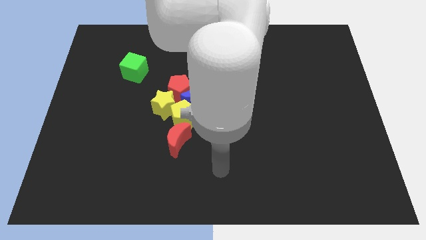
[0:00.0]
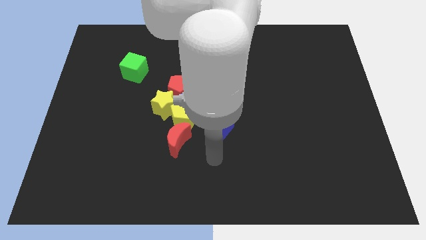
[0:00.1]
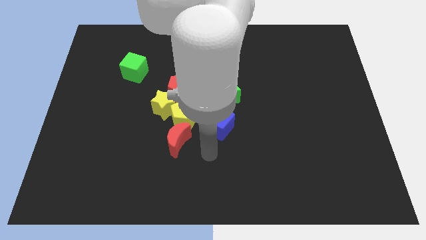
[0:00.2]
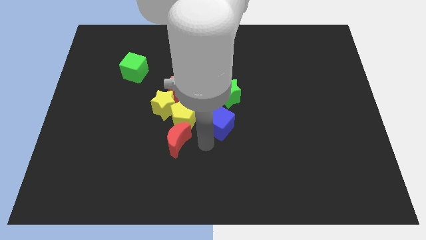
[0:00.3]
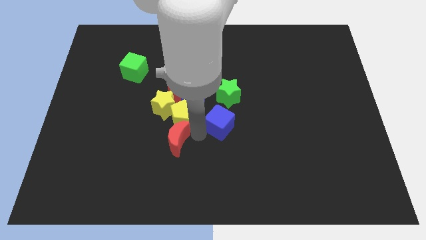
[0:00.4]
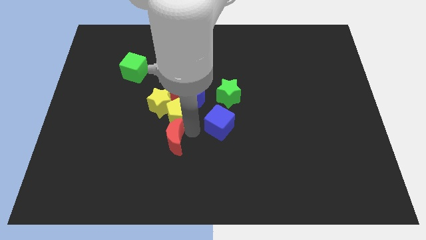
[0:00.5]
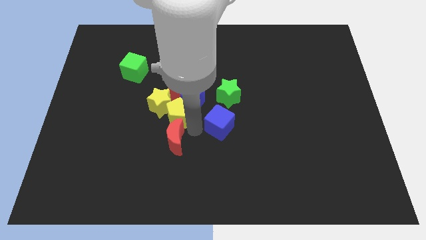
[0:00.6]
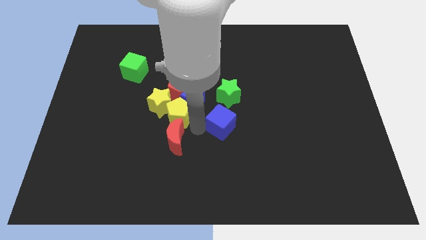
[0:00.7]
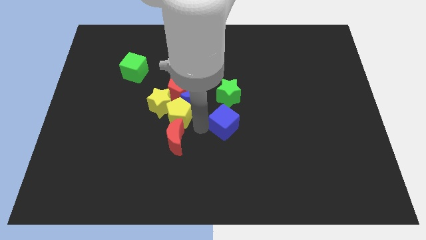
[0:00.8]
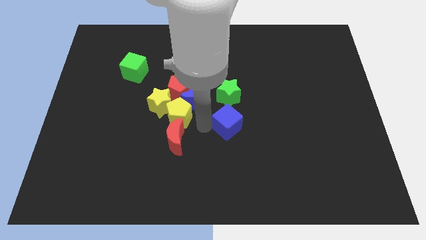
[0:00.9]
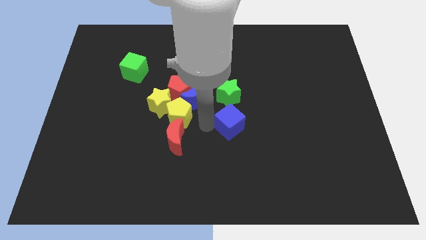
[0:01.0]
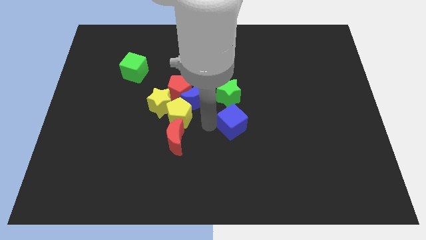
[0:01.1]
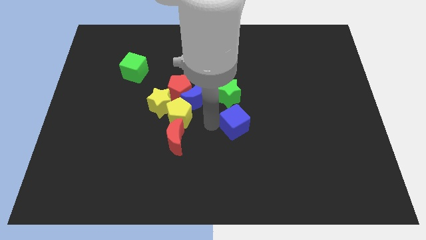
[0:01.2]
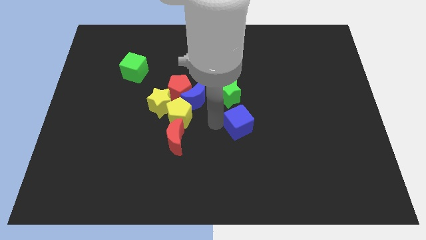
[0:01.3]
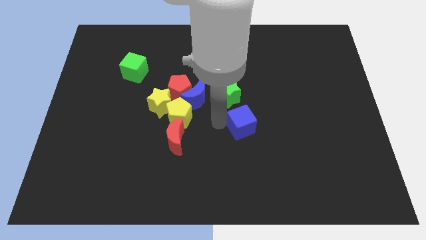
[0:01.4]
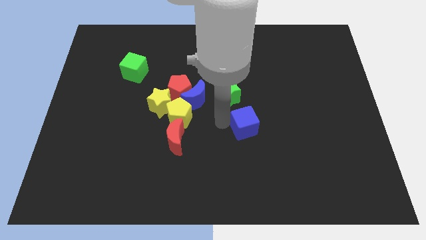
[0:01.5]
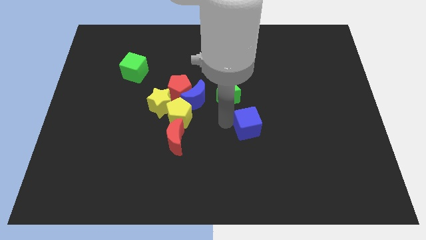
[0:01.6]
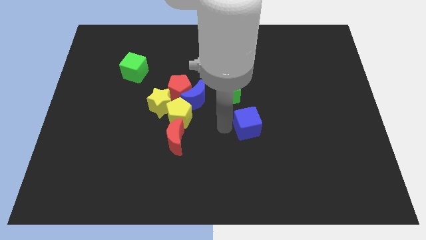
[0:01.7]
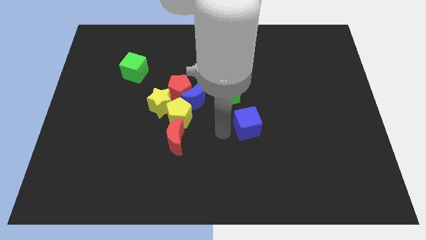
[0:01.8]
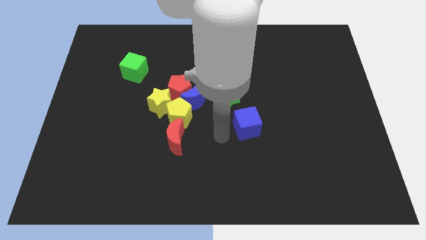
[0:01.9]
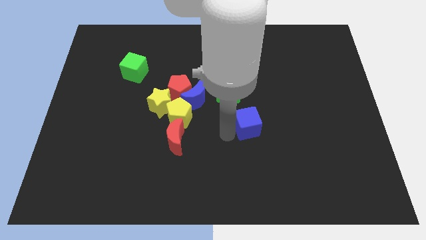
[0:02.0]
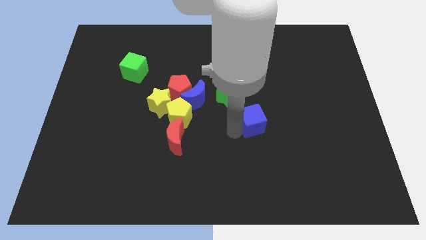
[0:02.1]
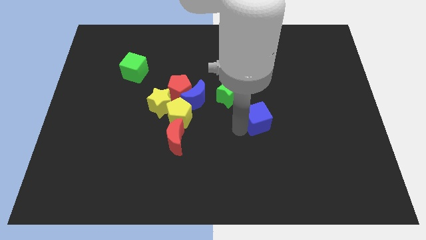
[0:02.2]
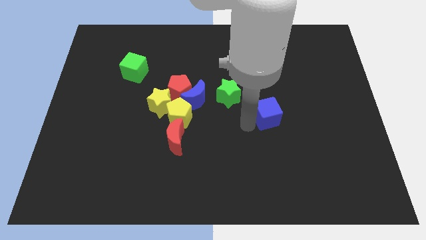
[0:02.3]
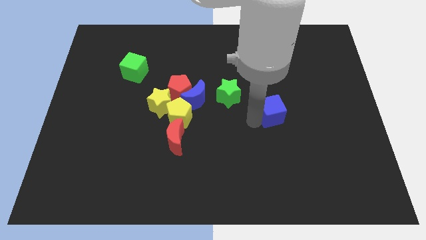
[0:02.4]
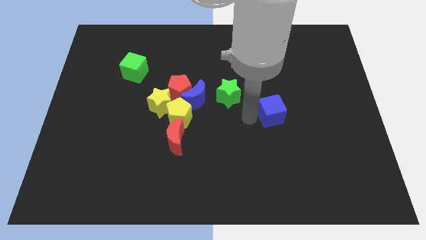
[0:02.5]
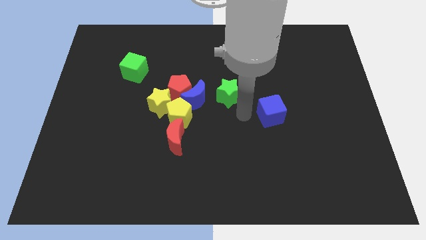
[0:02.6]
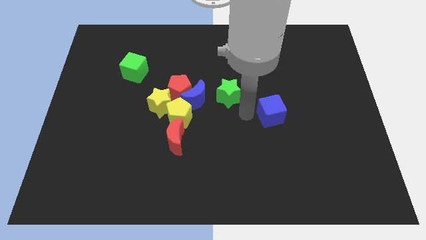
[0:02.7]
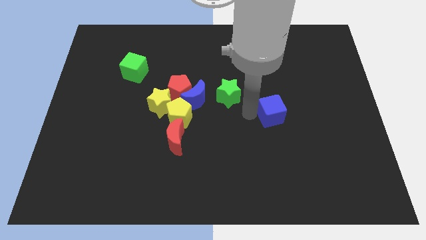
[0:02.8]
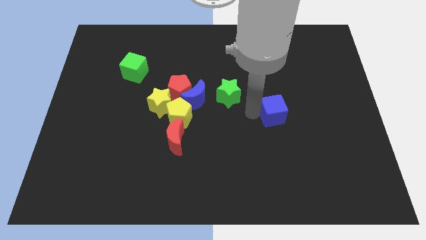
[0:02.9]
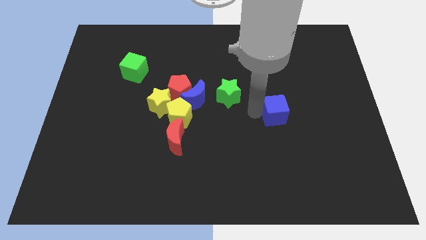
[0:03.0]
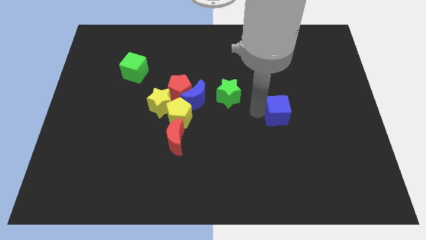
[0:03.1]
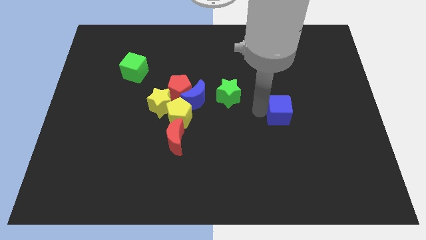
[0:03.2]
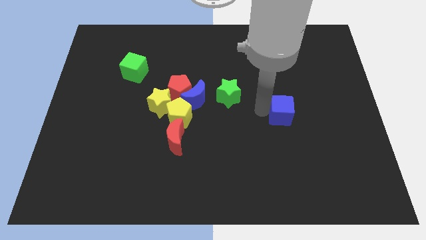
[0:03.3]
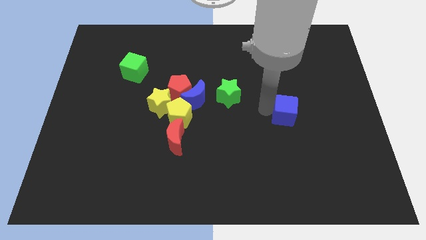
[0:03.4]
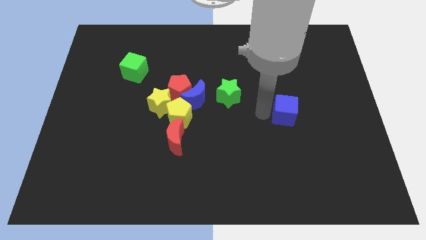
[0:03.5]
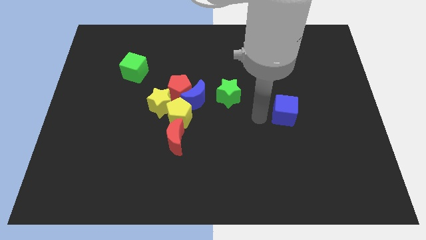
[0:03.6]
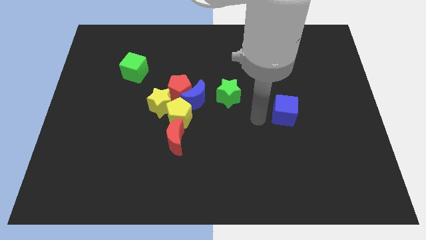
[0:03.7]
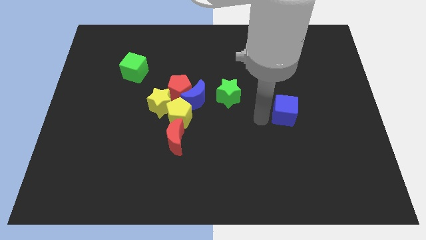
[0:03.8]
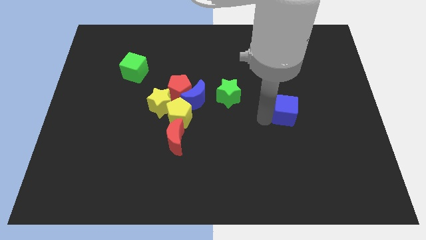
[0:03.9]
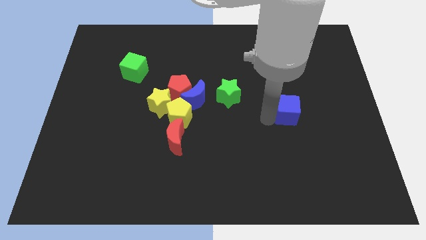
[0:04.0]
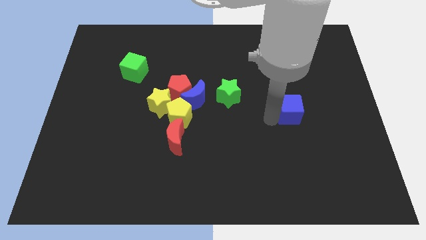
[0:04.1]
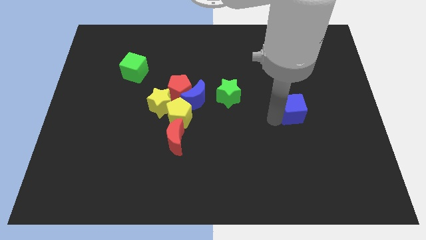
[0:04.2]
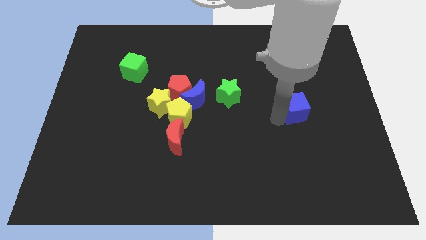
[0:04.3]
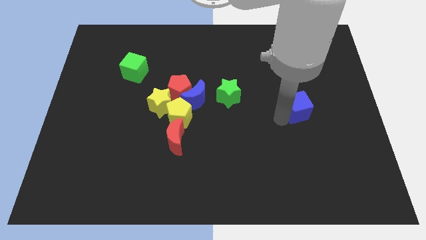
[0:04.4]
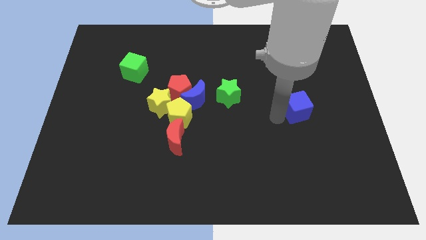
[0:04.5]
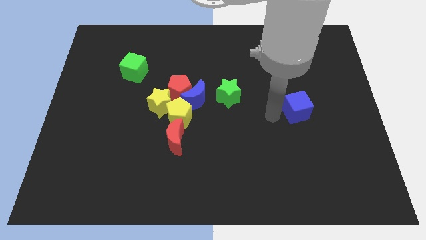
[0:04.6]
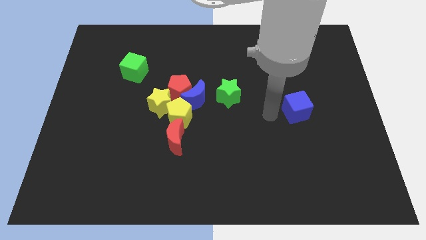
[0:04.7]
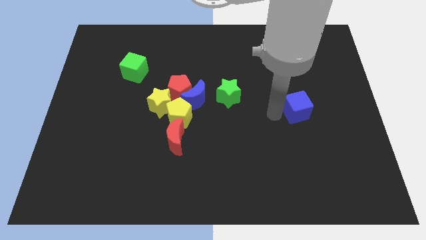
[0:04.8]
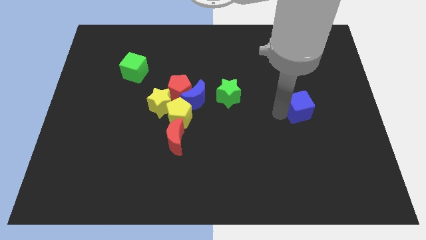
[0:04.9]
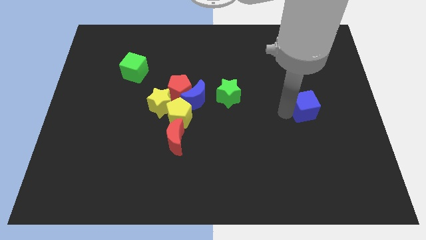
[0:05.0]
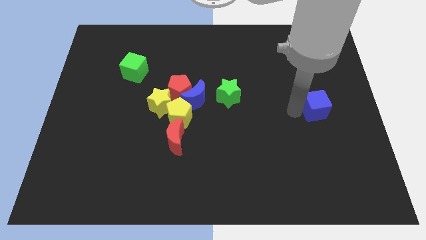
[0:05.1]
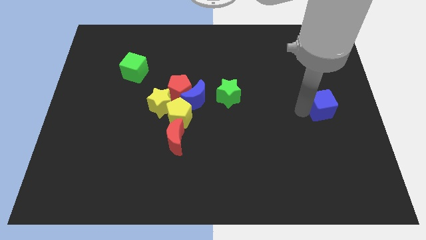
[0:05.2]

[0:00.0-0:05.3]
put the blue cube to the right side of the board

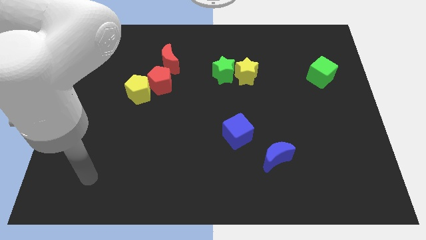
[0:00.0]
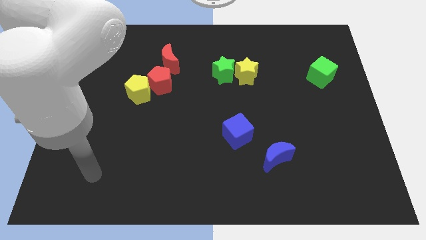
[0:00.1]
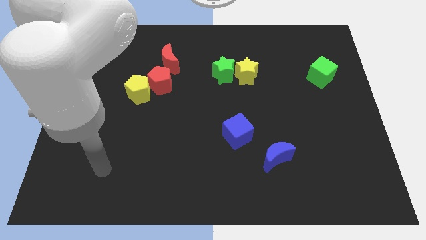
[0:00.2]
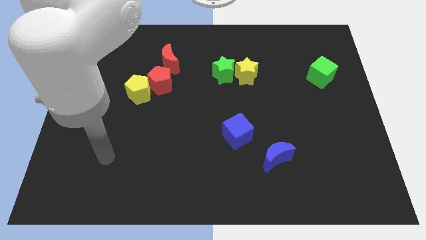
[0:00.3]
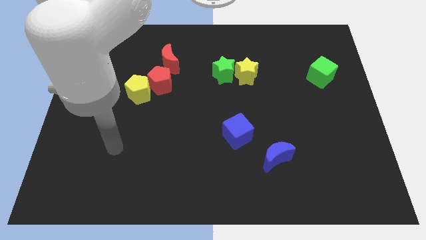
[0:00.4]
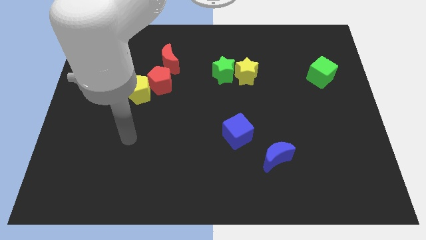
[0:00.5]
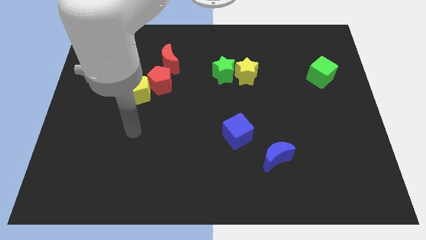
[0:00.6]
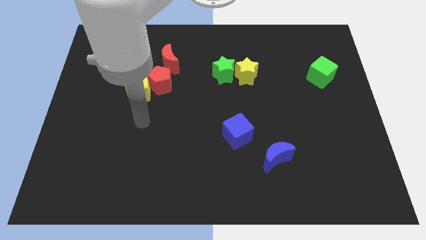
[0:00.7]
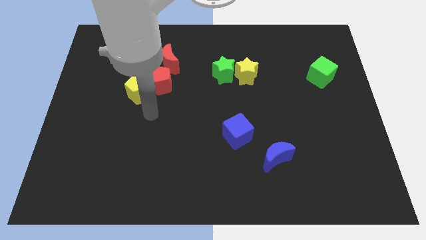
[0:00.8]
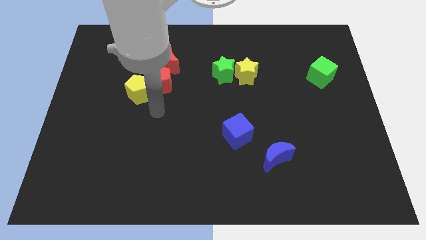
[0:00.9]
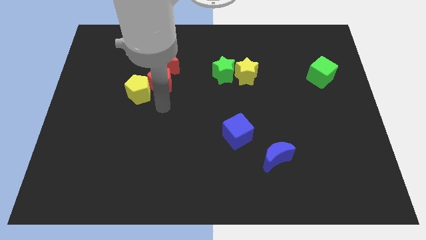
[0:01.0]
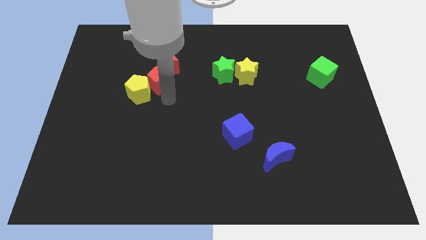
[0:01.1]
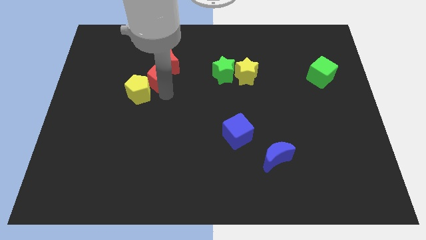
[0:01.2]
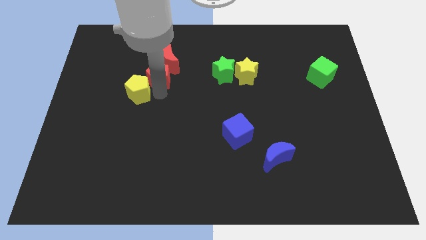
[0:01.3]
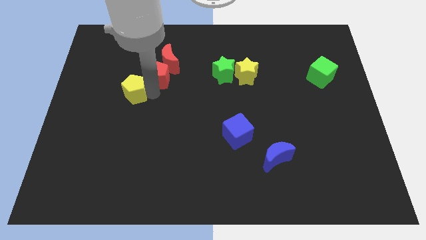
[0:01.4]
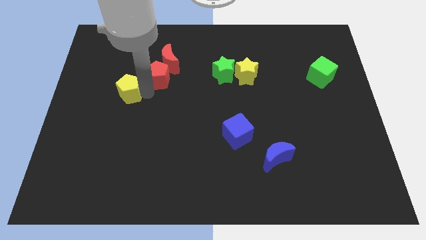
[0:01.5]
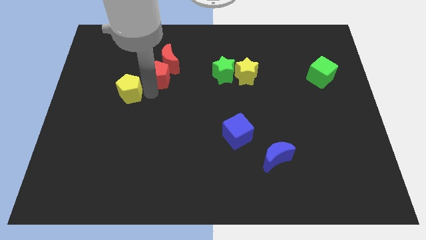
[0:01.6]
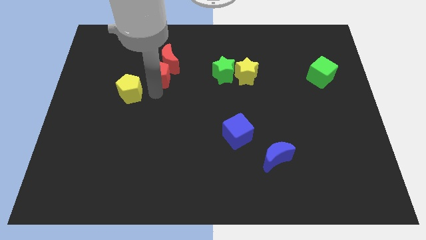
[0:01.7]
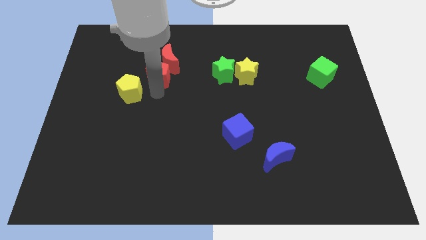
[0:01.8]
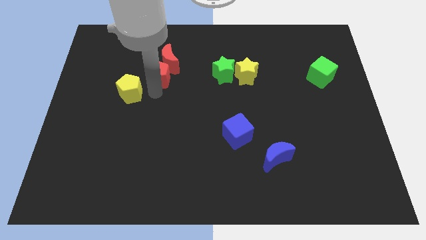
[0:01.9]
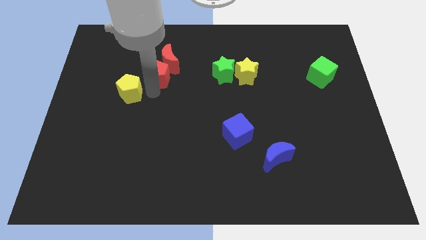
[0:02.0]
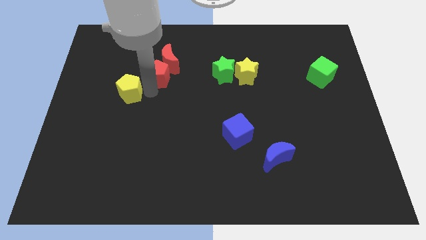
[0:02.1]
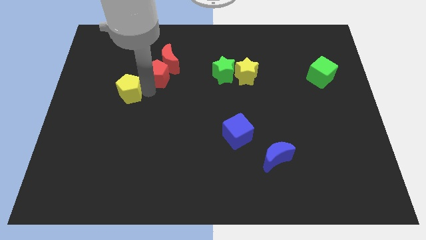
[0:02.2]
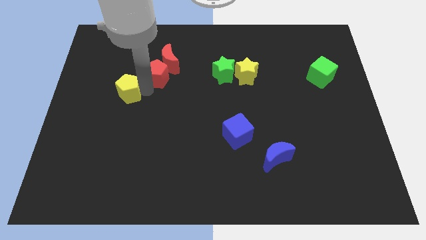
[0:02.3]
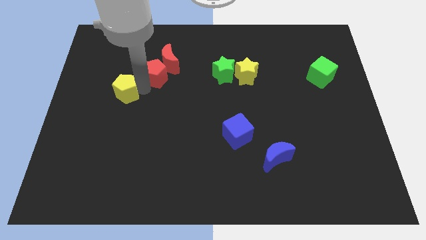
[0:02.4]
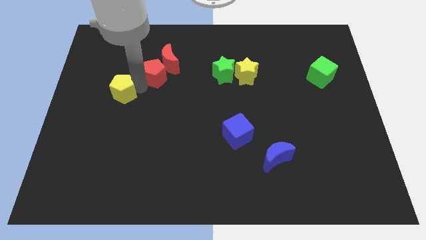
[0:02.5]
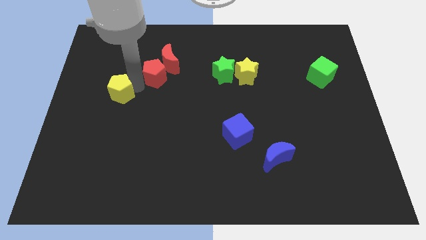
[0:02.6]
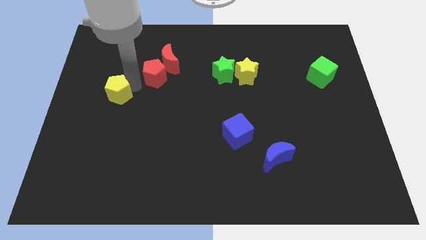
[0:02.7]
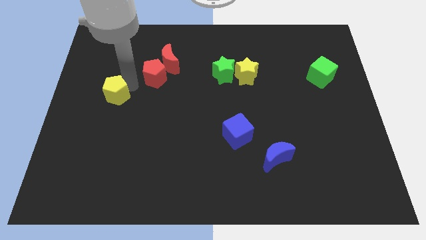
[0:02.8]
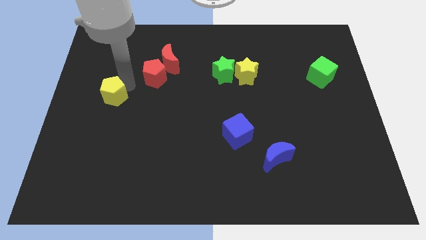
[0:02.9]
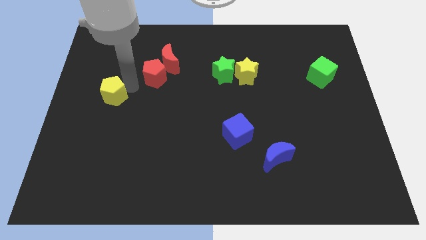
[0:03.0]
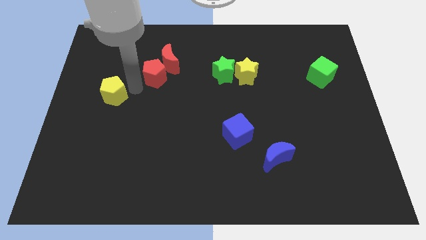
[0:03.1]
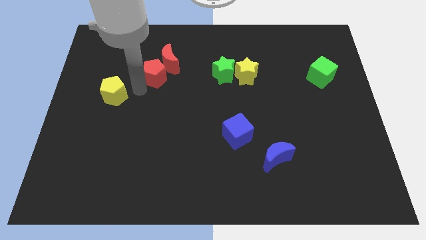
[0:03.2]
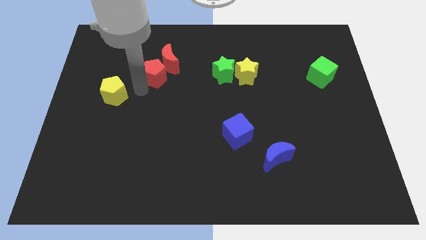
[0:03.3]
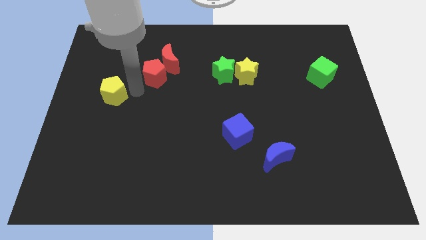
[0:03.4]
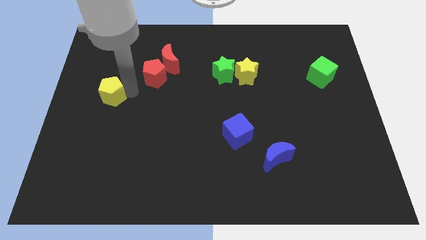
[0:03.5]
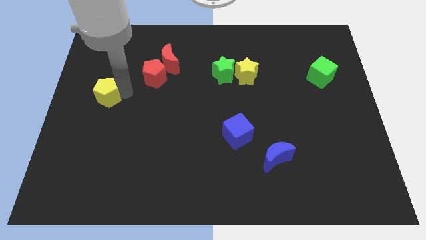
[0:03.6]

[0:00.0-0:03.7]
slide the yellow pentagon to the center left
